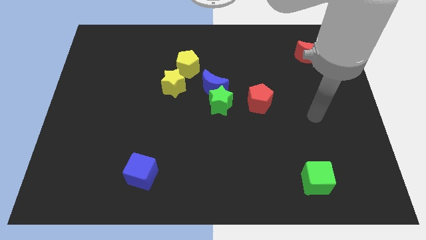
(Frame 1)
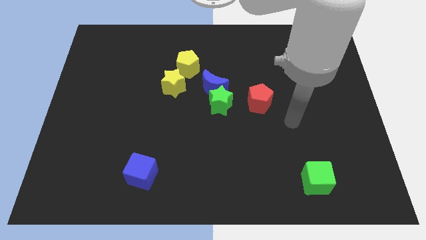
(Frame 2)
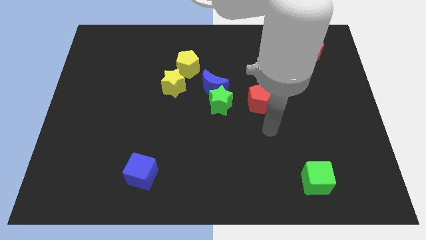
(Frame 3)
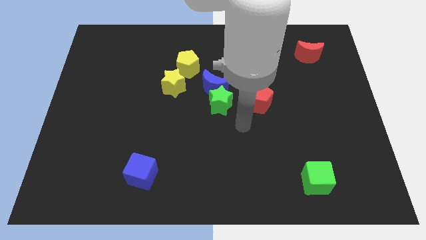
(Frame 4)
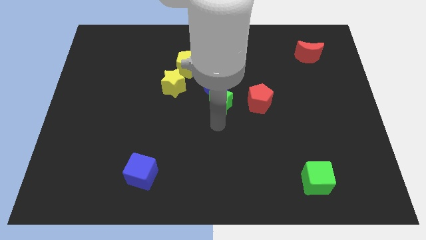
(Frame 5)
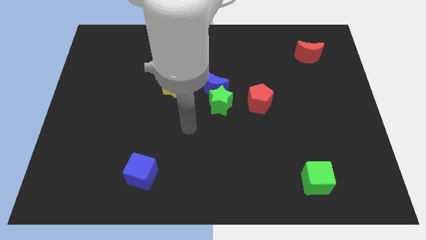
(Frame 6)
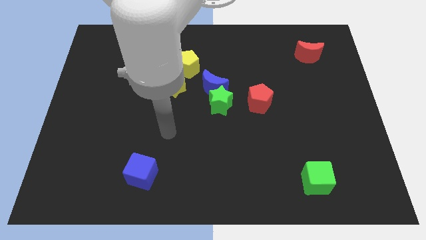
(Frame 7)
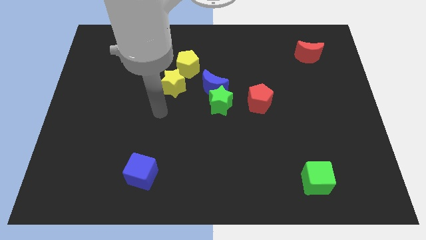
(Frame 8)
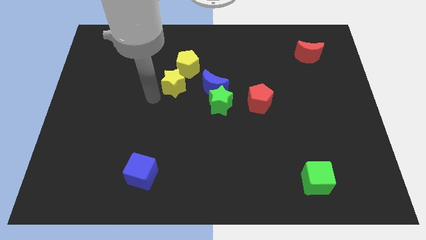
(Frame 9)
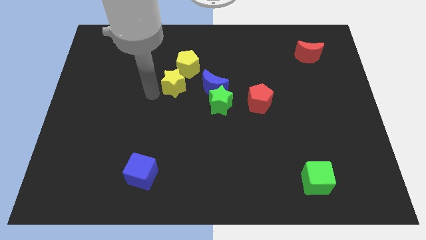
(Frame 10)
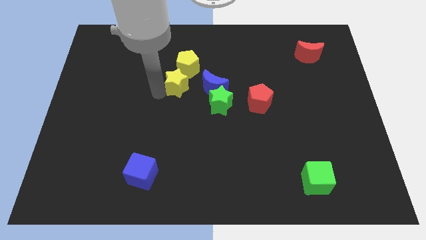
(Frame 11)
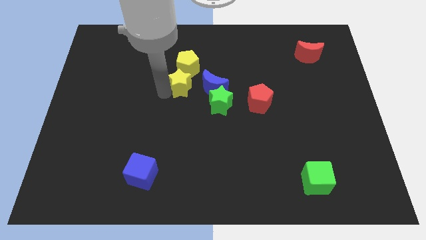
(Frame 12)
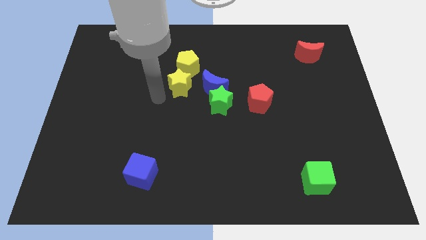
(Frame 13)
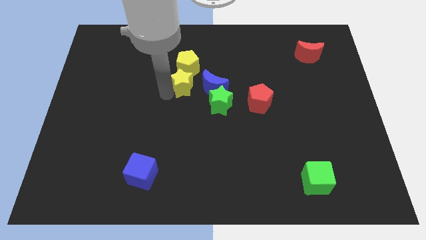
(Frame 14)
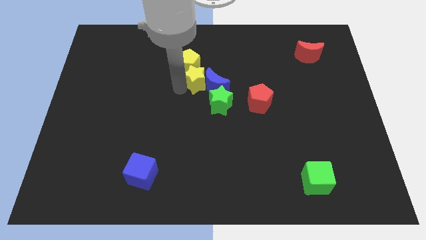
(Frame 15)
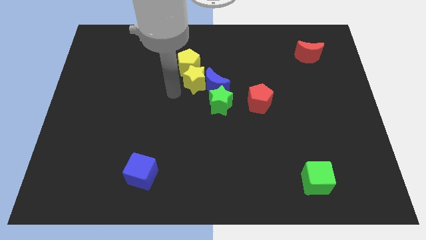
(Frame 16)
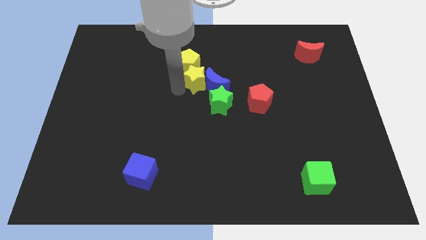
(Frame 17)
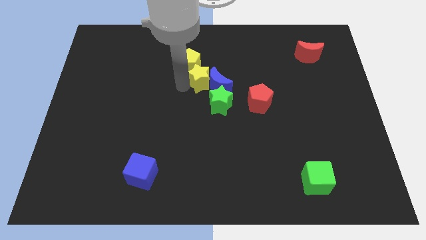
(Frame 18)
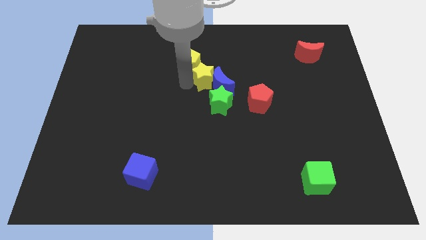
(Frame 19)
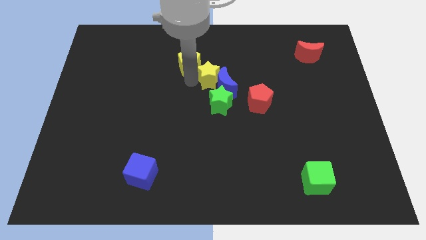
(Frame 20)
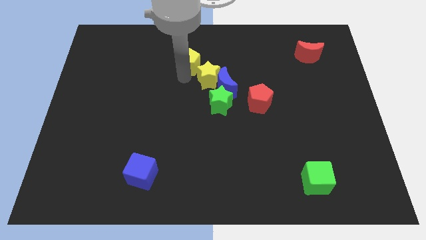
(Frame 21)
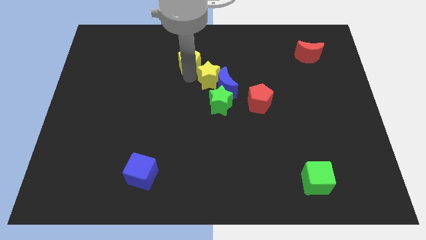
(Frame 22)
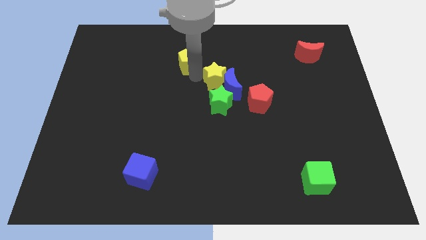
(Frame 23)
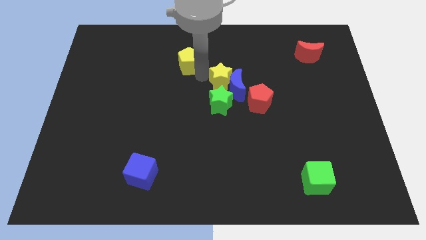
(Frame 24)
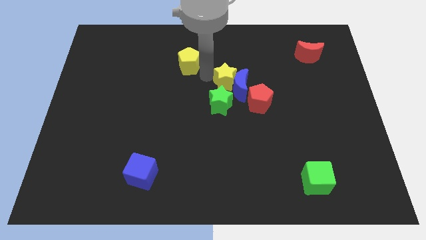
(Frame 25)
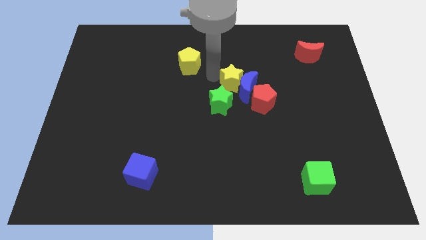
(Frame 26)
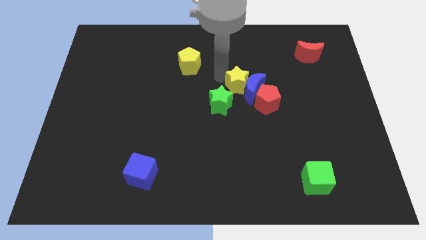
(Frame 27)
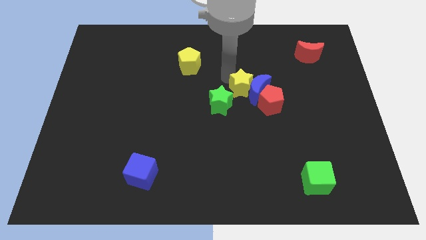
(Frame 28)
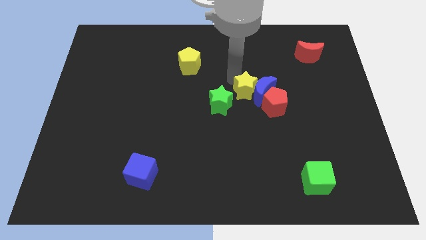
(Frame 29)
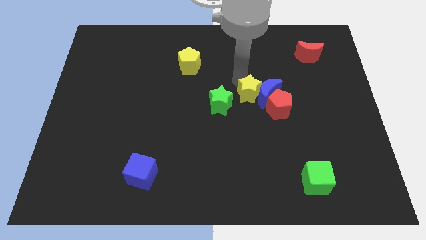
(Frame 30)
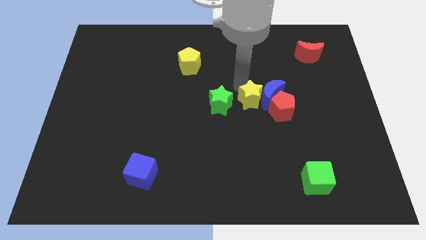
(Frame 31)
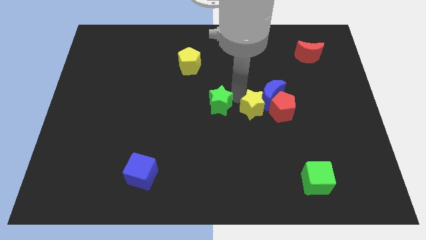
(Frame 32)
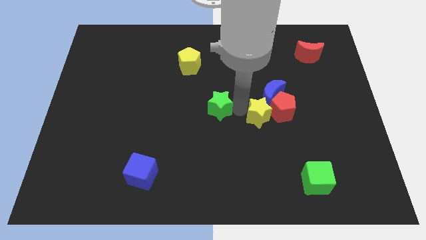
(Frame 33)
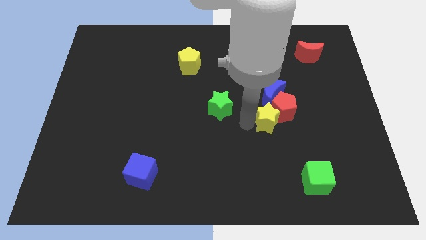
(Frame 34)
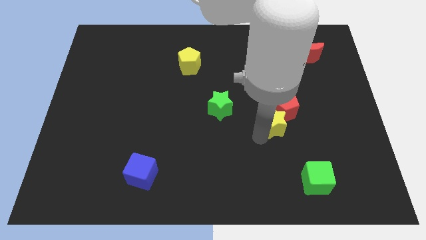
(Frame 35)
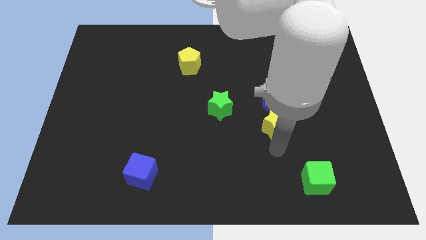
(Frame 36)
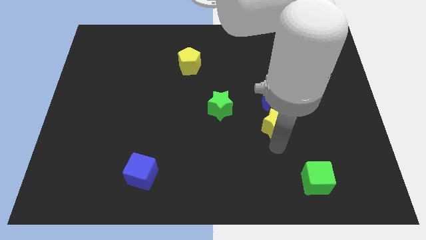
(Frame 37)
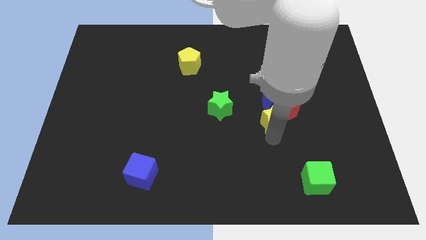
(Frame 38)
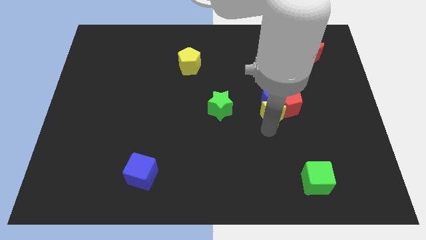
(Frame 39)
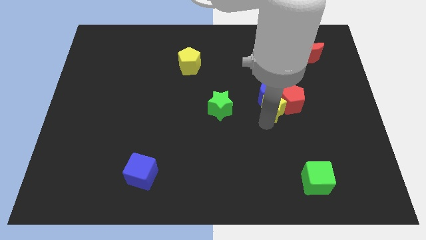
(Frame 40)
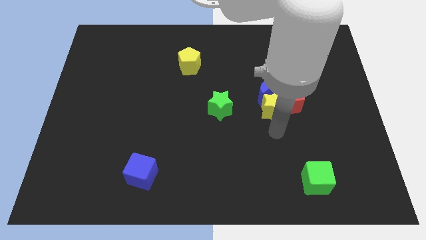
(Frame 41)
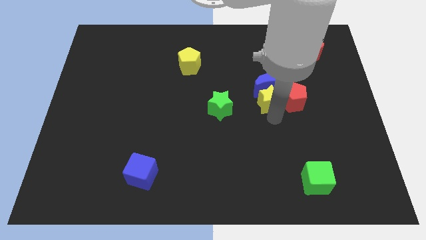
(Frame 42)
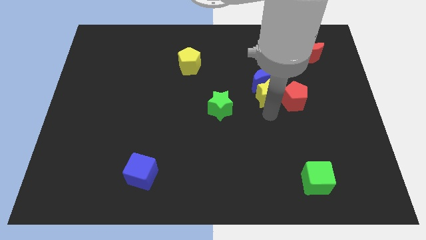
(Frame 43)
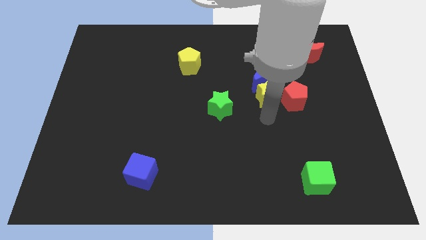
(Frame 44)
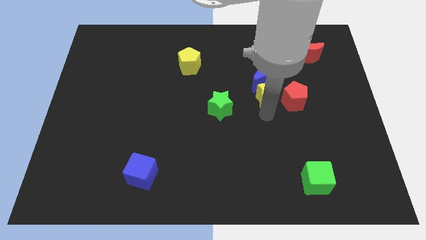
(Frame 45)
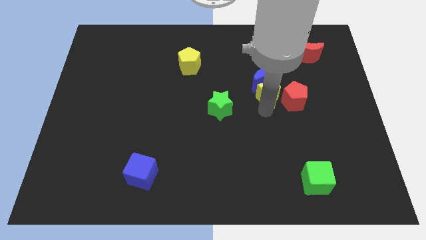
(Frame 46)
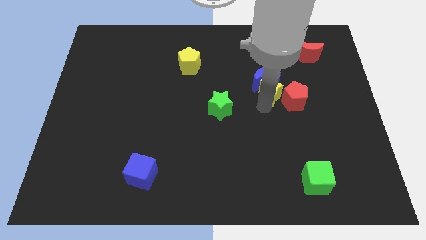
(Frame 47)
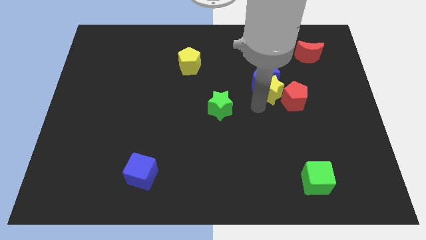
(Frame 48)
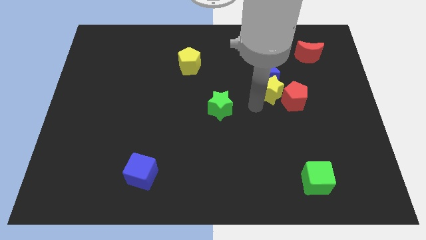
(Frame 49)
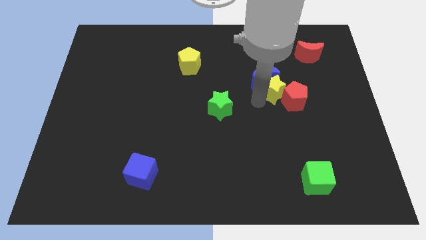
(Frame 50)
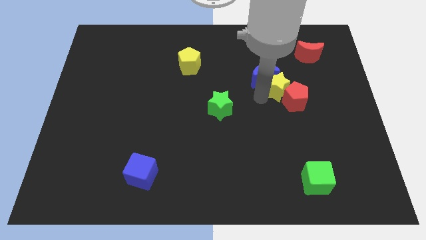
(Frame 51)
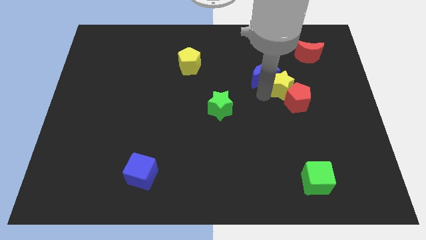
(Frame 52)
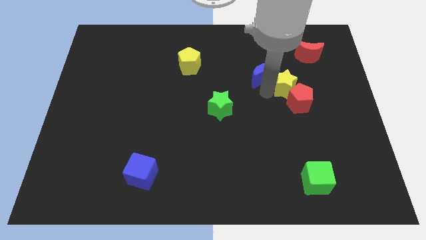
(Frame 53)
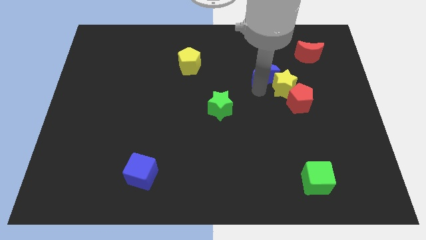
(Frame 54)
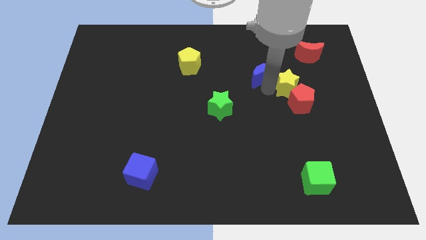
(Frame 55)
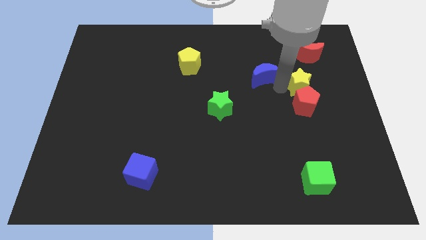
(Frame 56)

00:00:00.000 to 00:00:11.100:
push the yellow star to the bottom of the red moon

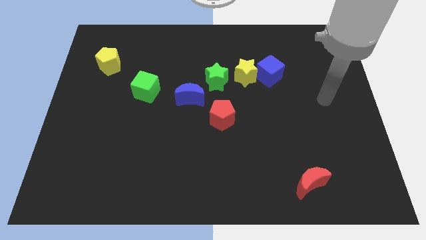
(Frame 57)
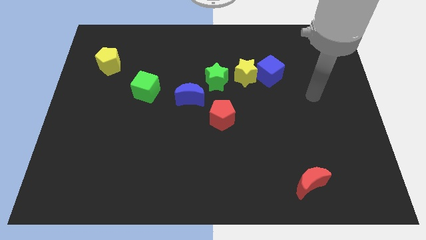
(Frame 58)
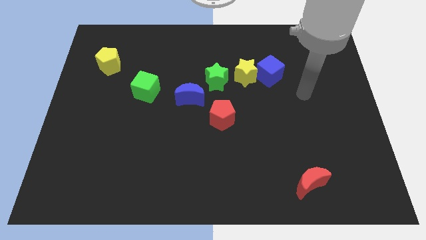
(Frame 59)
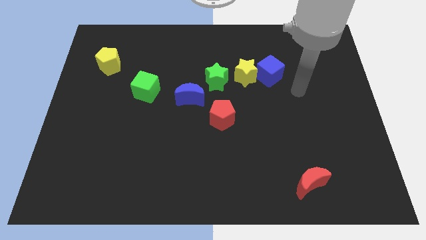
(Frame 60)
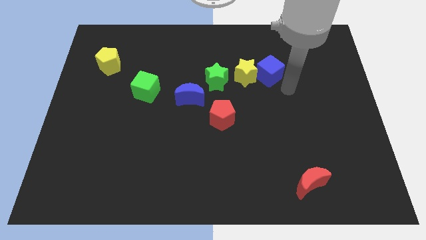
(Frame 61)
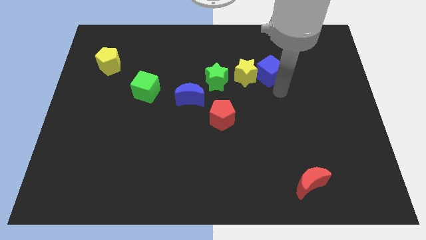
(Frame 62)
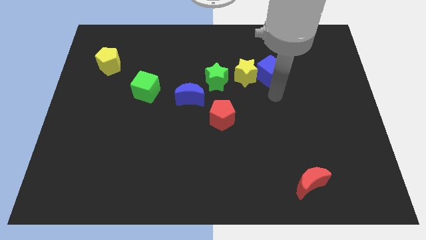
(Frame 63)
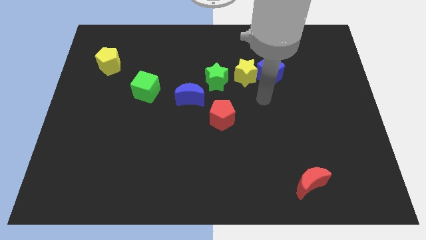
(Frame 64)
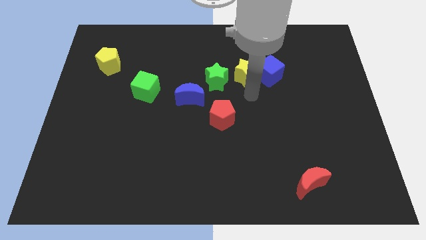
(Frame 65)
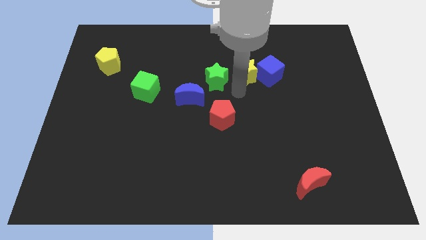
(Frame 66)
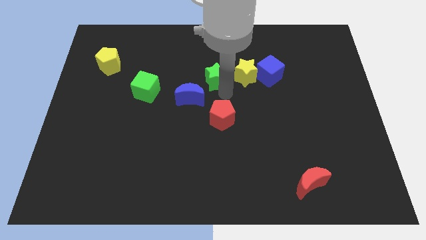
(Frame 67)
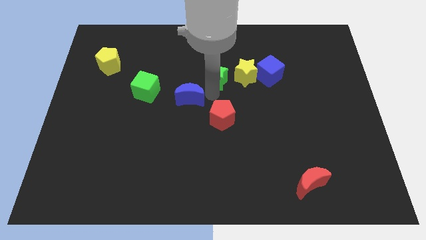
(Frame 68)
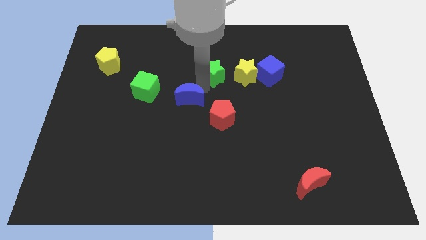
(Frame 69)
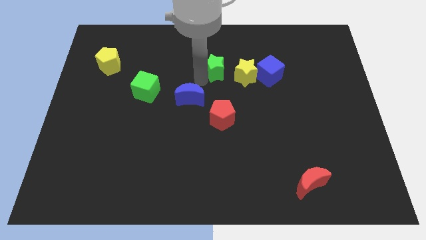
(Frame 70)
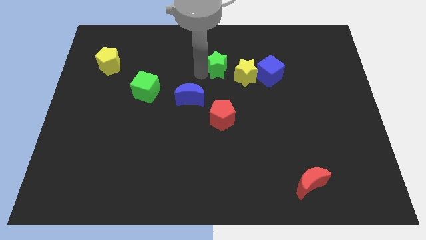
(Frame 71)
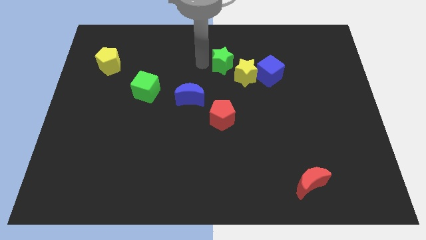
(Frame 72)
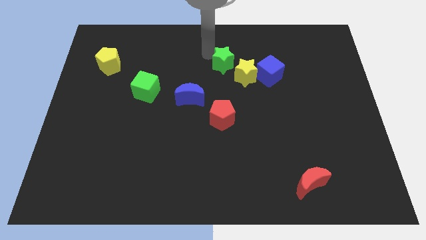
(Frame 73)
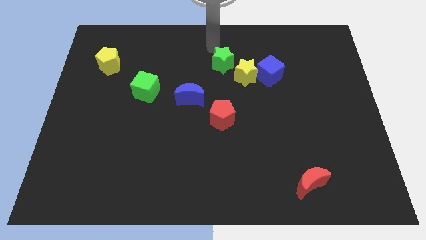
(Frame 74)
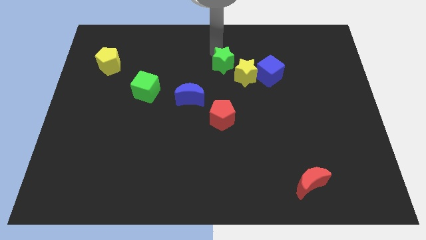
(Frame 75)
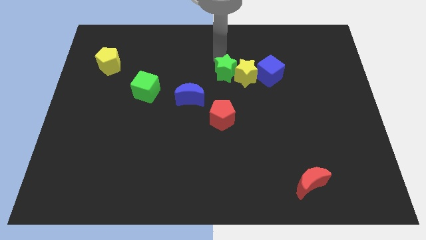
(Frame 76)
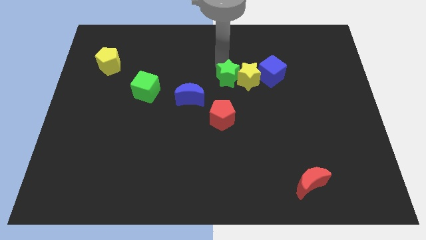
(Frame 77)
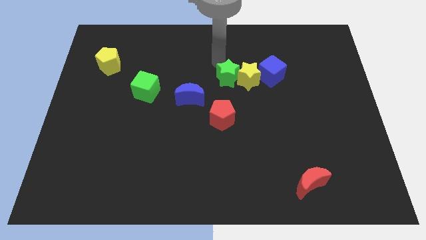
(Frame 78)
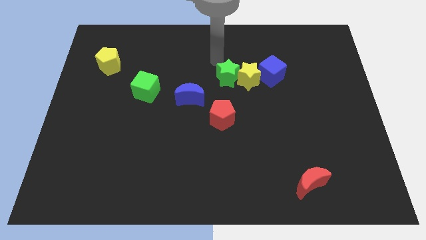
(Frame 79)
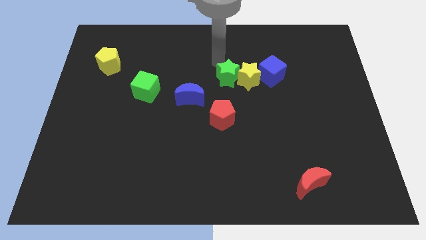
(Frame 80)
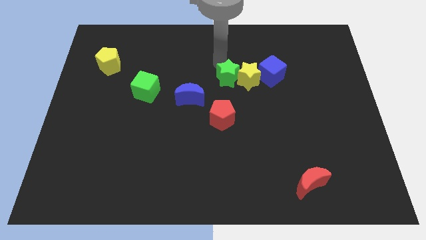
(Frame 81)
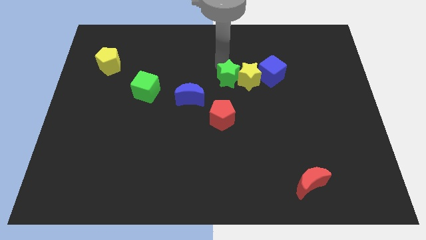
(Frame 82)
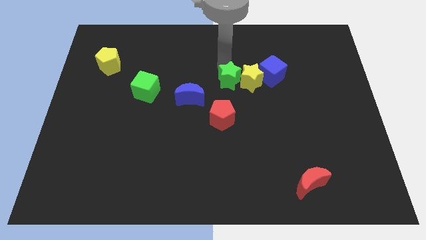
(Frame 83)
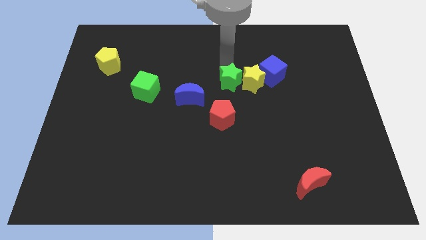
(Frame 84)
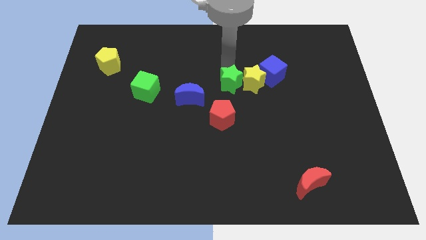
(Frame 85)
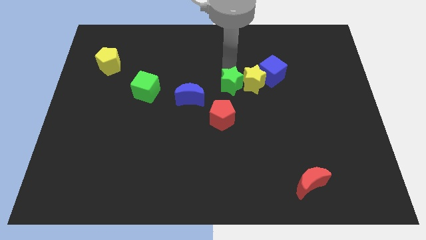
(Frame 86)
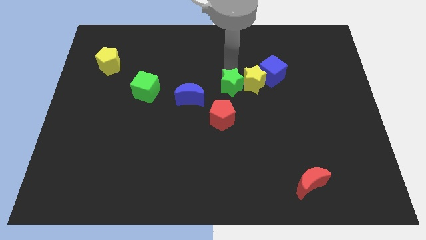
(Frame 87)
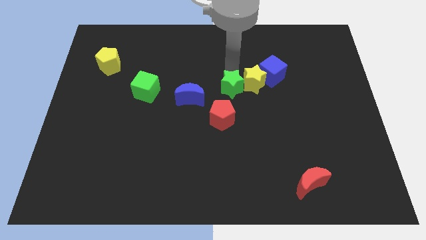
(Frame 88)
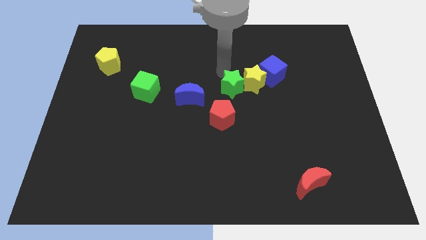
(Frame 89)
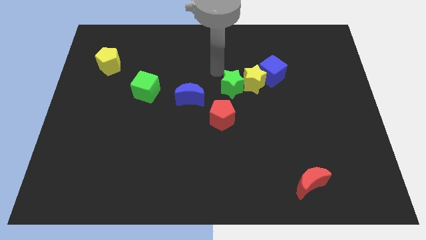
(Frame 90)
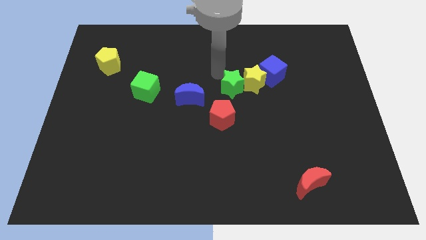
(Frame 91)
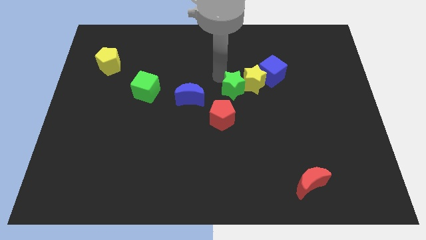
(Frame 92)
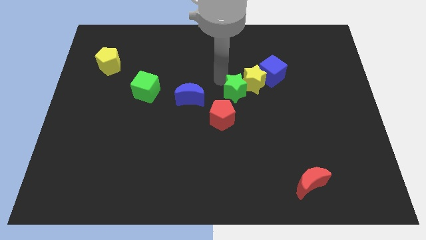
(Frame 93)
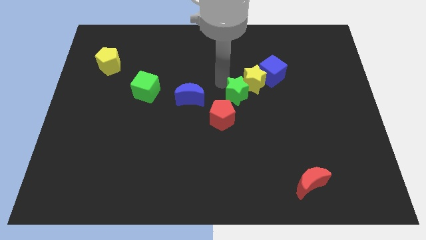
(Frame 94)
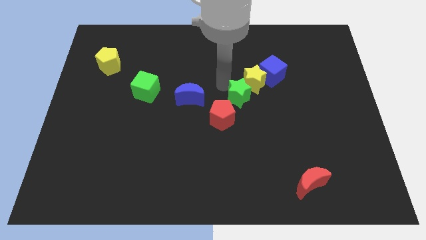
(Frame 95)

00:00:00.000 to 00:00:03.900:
put the green star below the yellow star
